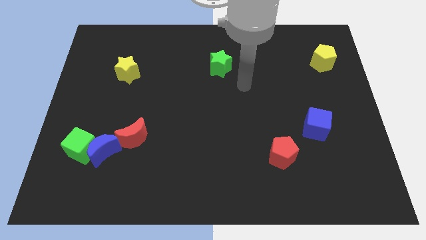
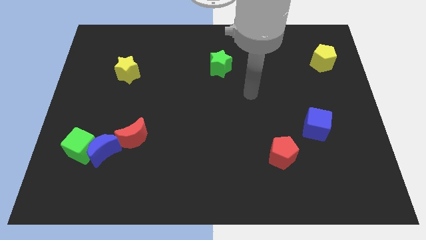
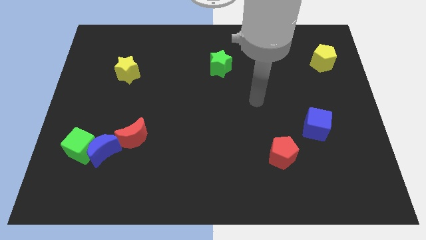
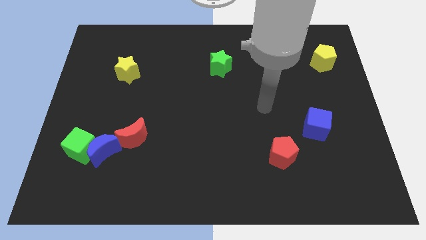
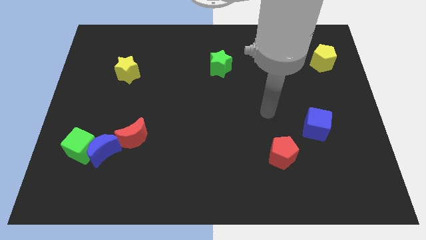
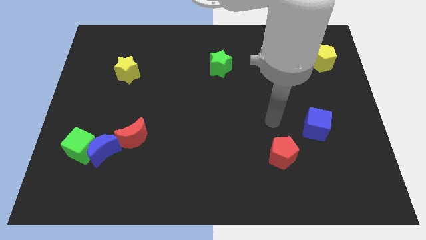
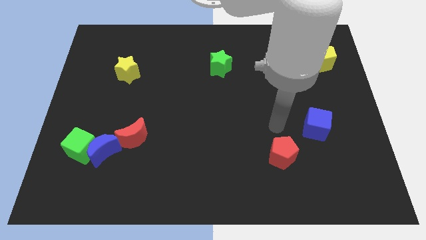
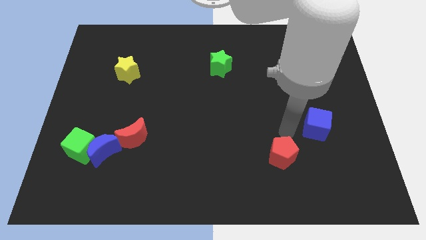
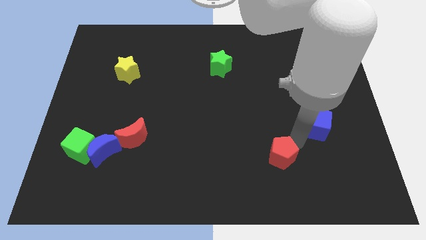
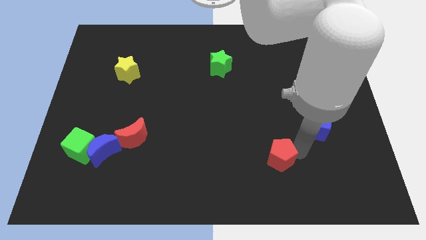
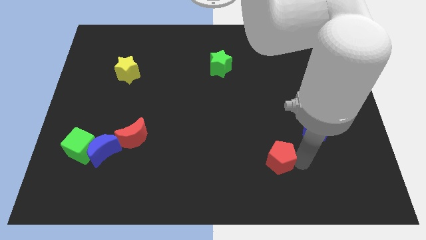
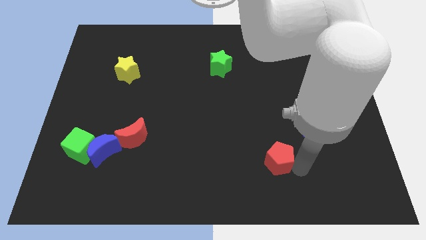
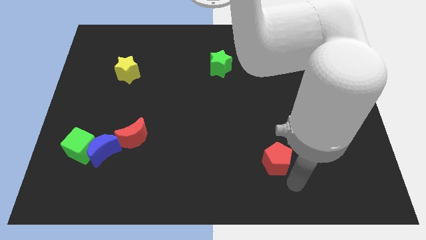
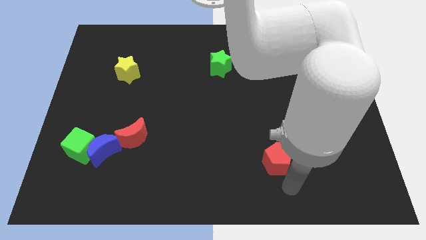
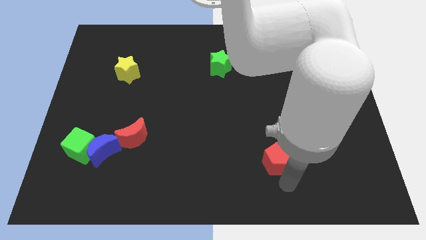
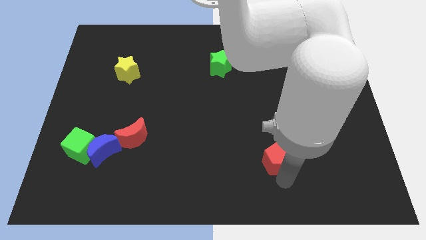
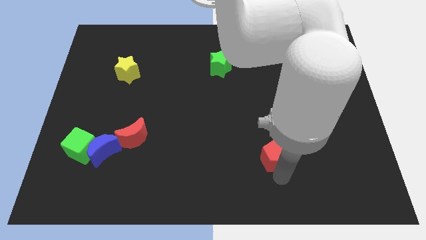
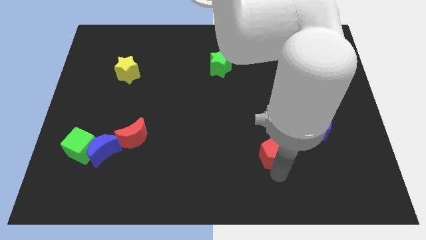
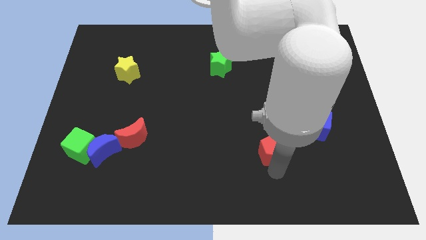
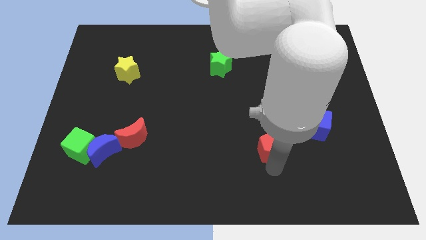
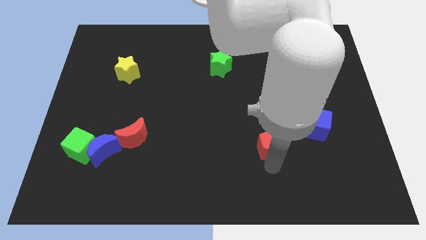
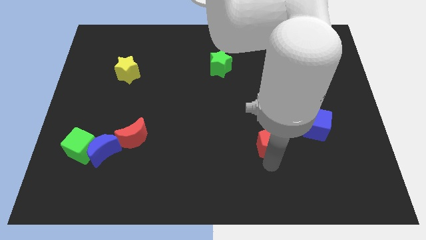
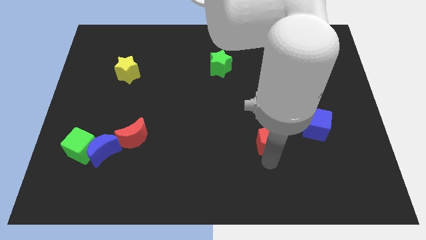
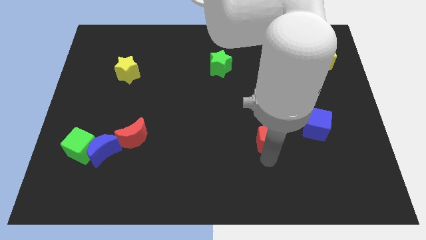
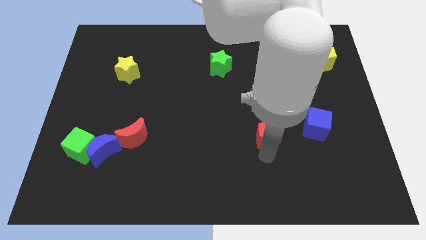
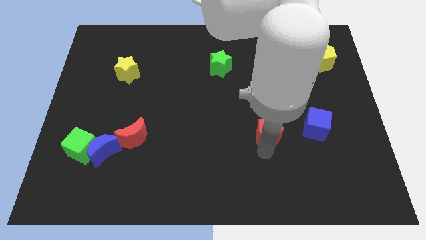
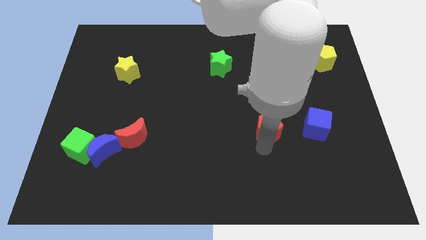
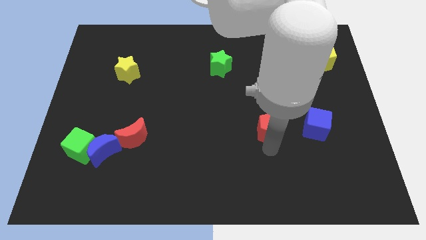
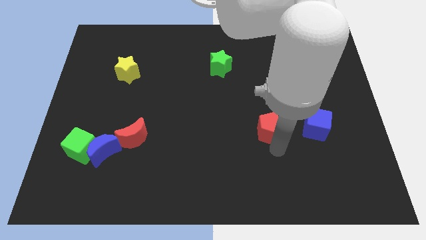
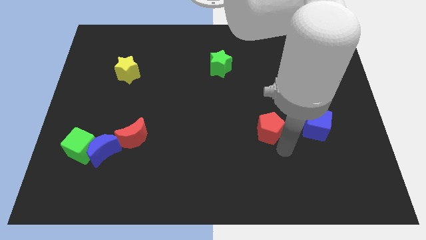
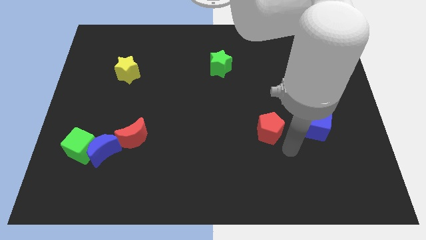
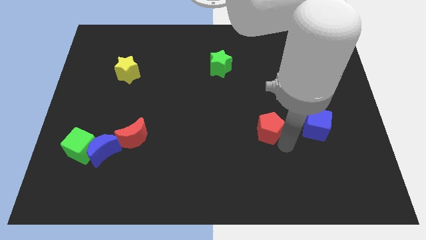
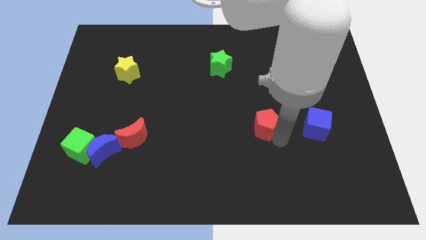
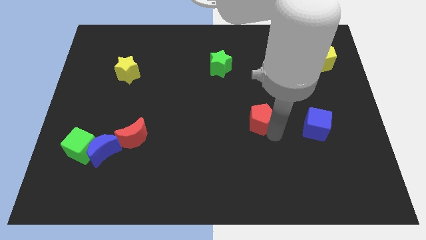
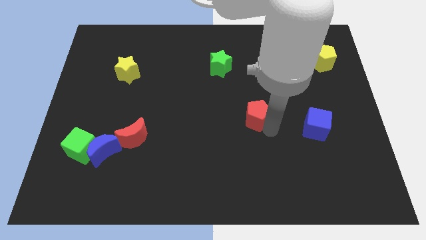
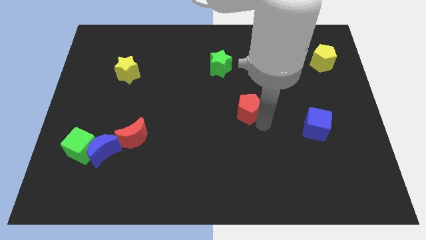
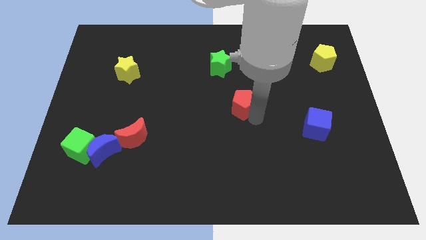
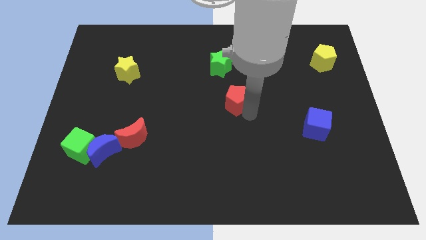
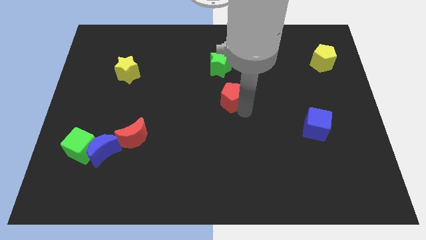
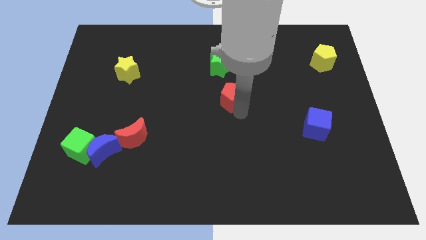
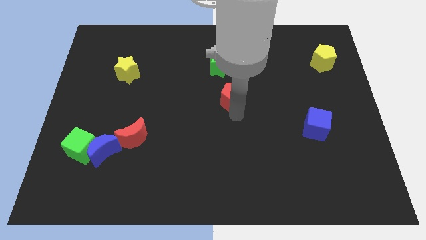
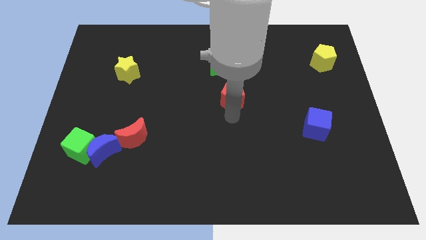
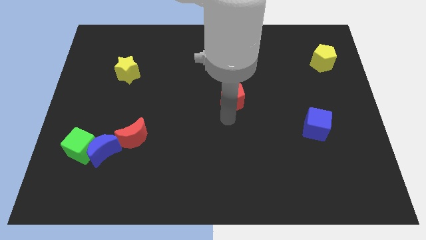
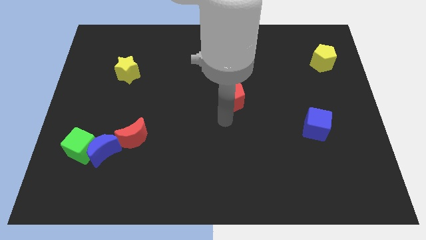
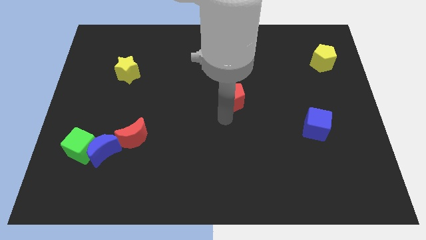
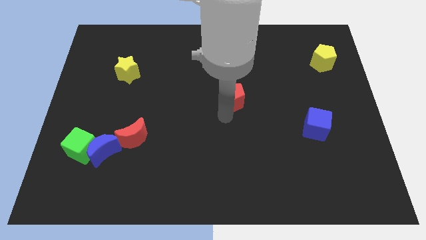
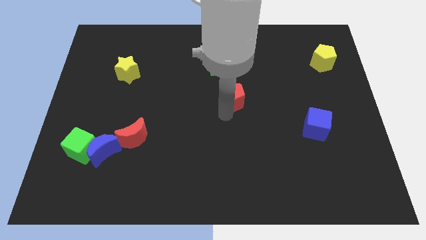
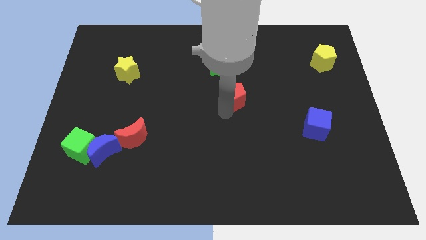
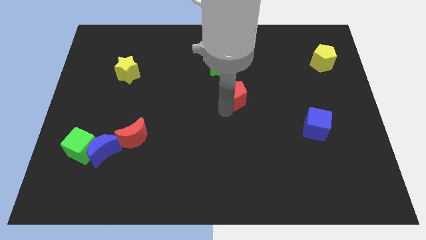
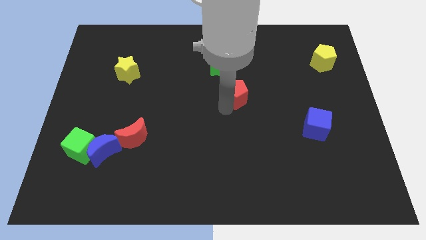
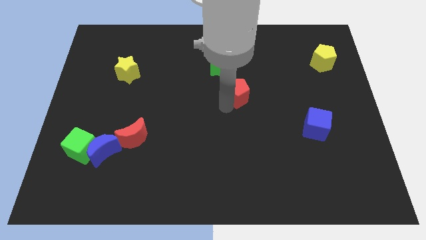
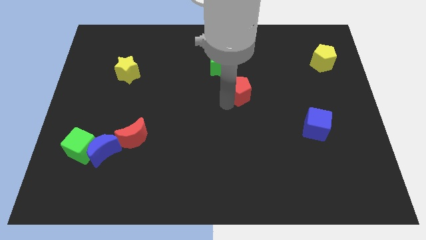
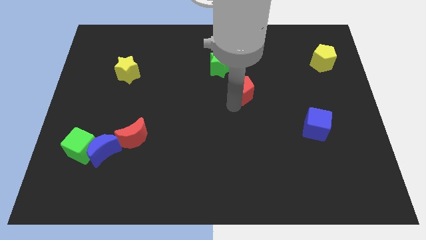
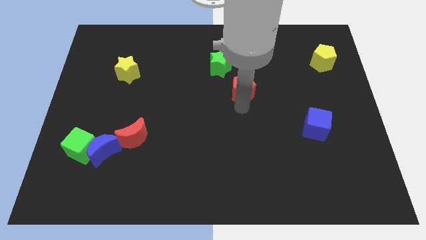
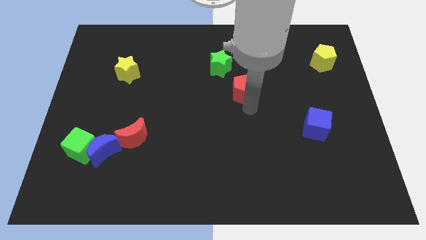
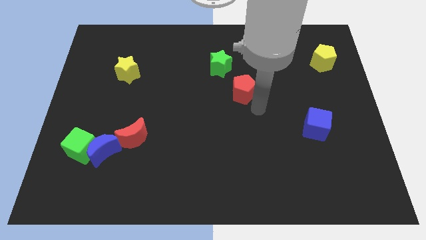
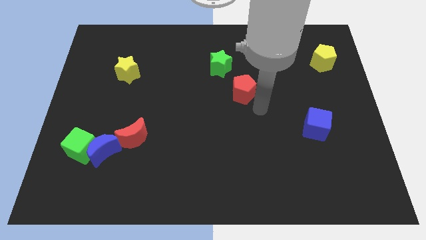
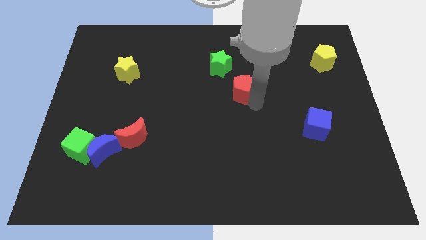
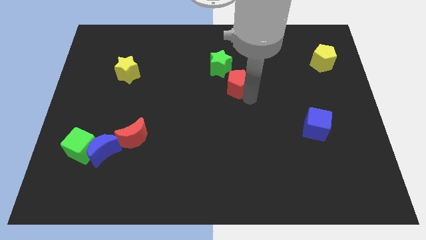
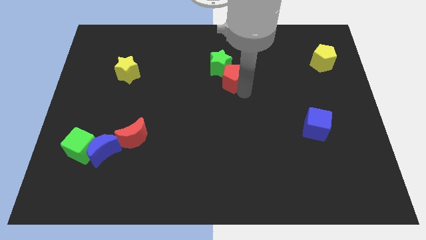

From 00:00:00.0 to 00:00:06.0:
put the red pentagon towards the green star

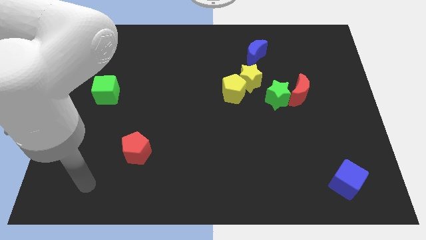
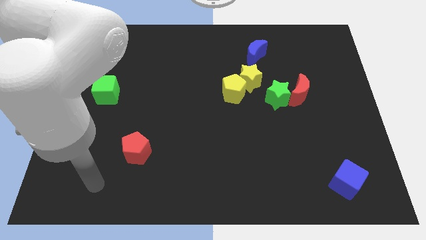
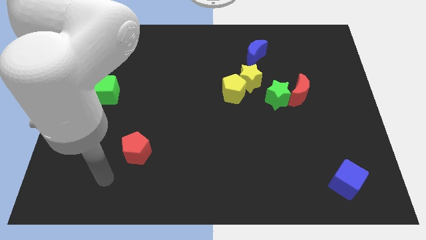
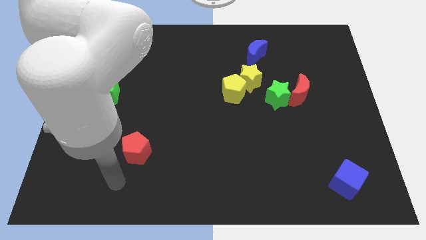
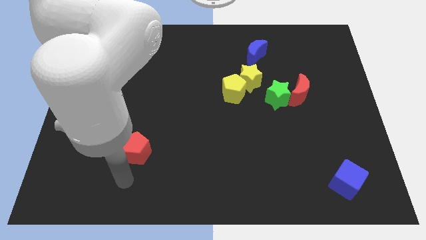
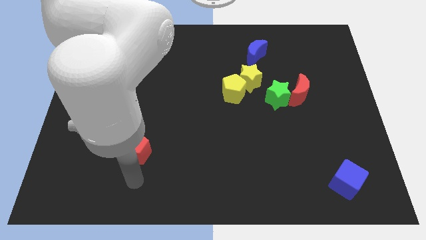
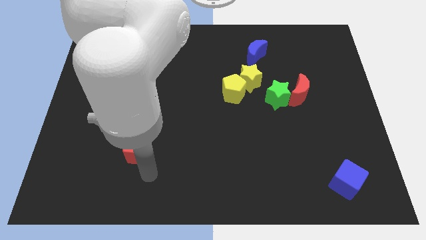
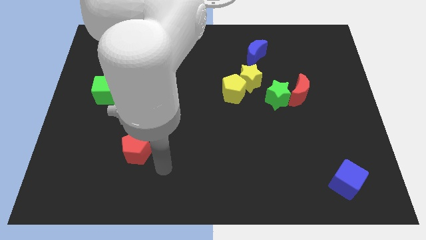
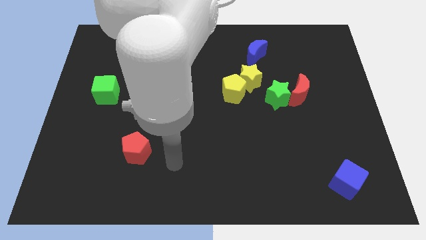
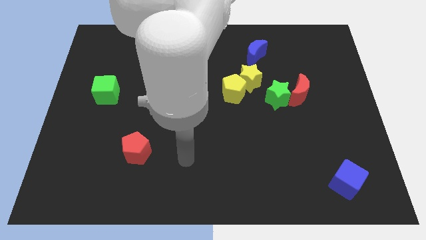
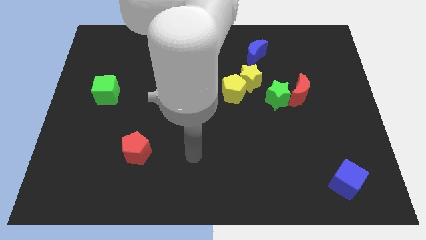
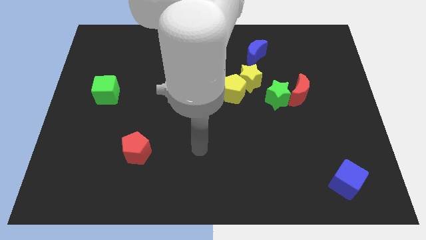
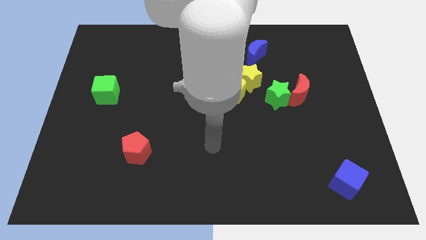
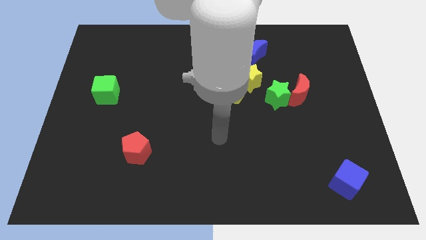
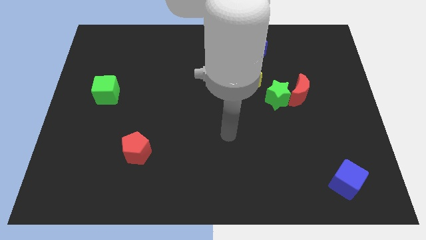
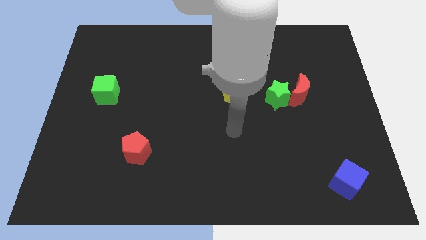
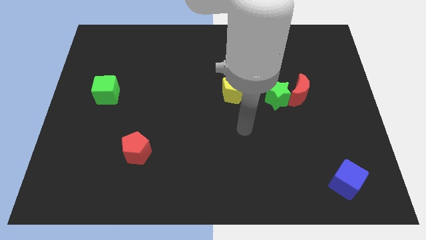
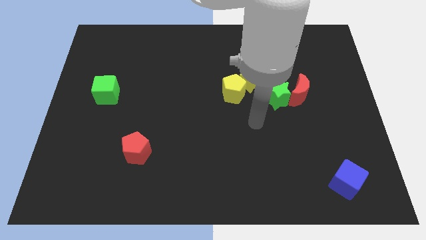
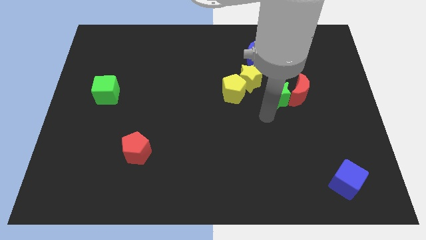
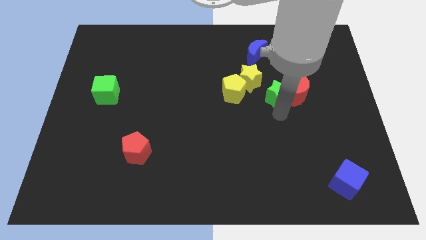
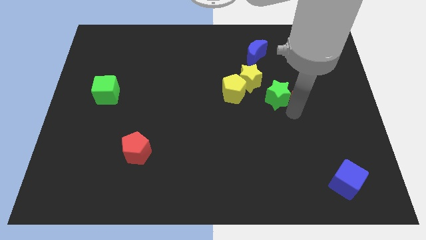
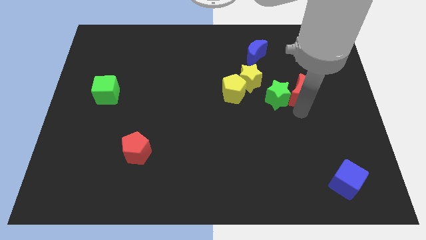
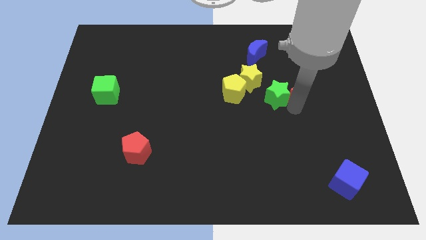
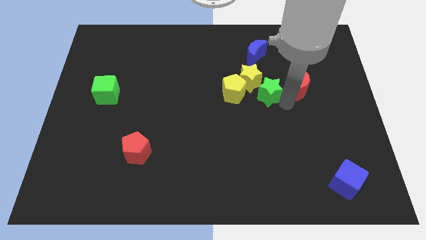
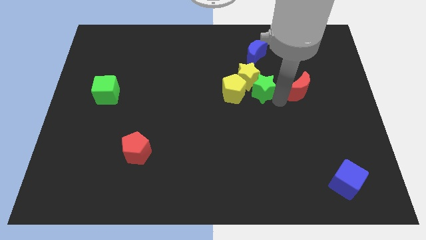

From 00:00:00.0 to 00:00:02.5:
move the green star close to the yellow star
